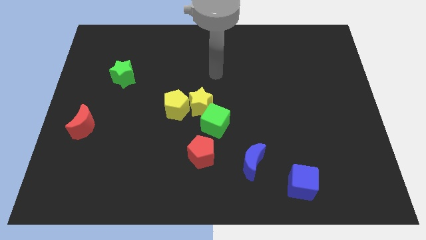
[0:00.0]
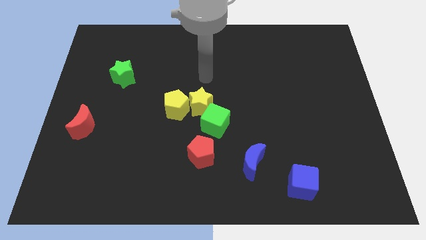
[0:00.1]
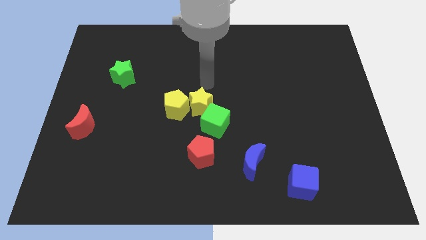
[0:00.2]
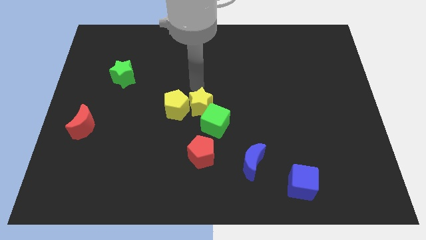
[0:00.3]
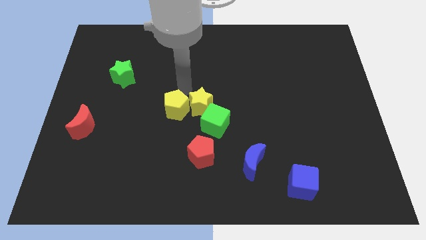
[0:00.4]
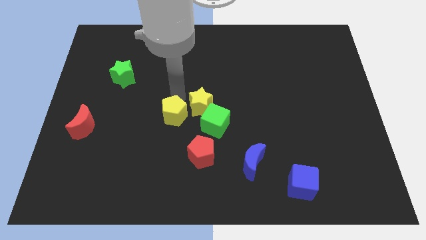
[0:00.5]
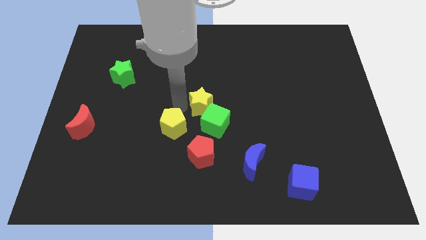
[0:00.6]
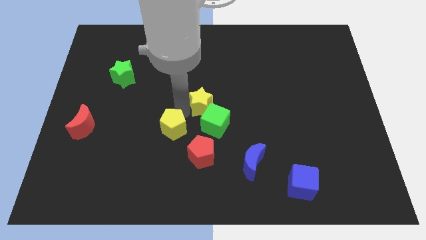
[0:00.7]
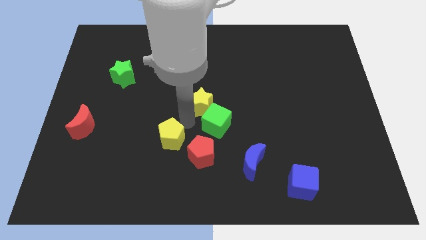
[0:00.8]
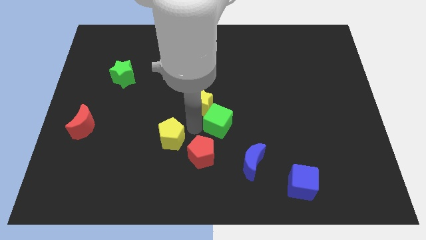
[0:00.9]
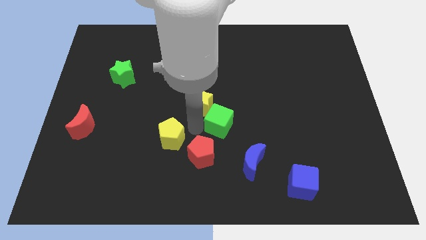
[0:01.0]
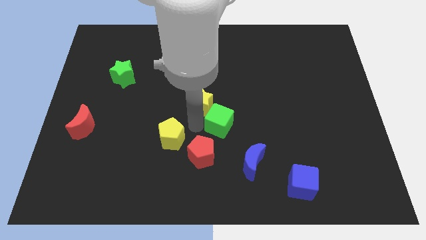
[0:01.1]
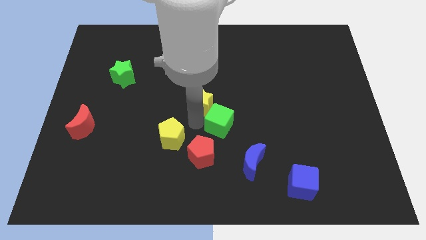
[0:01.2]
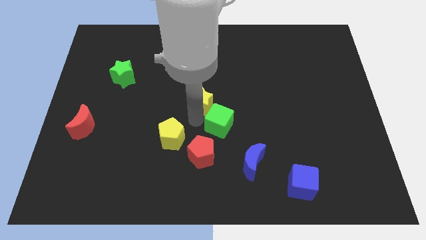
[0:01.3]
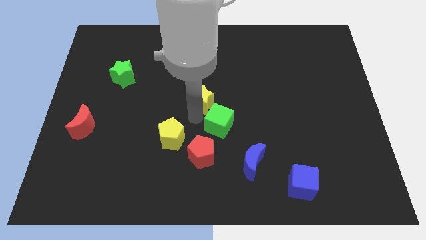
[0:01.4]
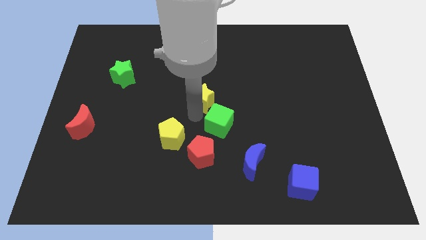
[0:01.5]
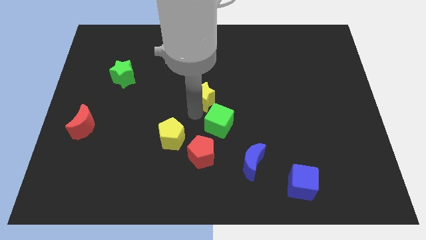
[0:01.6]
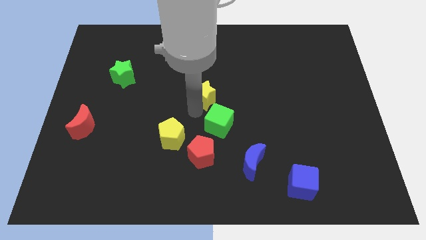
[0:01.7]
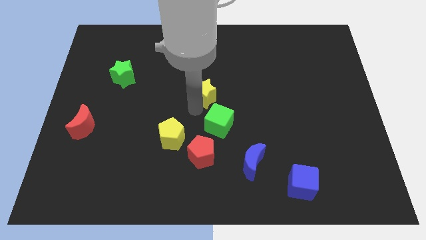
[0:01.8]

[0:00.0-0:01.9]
separate the yellow star from the yellow pentagon and green cube

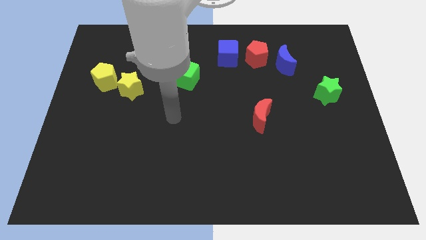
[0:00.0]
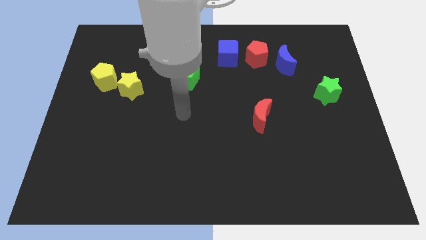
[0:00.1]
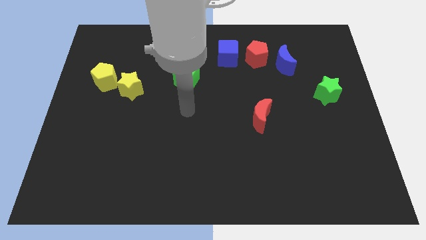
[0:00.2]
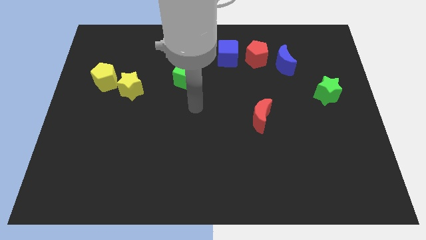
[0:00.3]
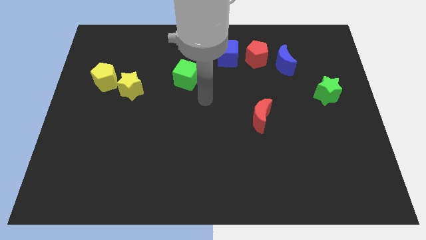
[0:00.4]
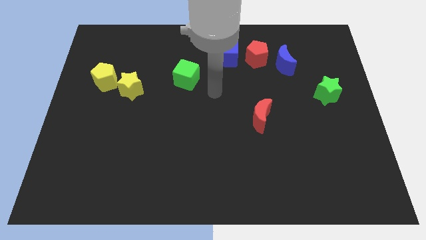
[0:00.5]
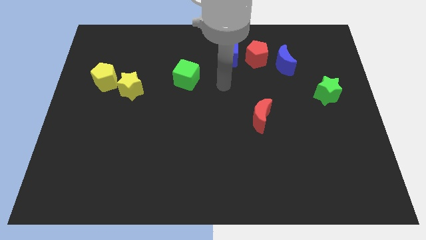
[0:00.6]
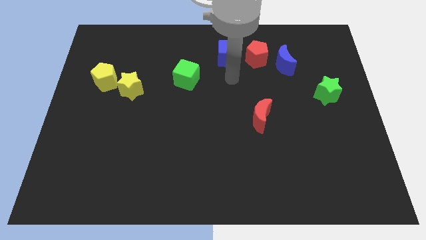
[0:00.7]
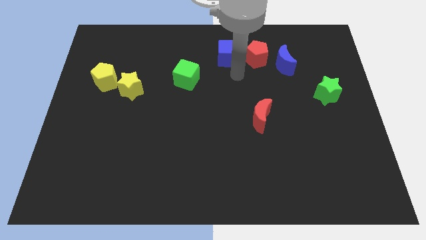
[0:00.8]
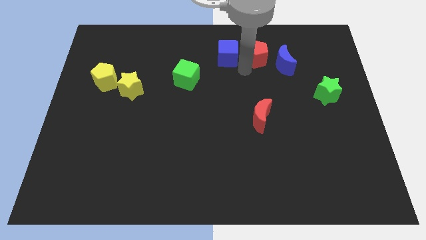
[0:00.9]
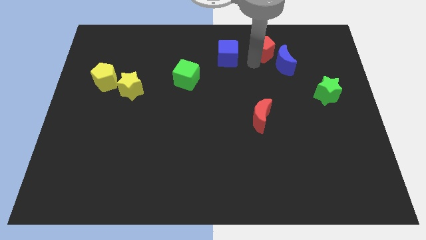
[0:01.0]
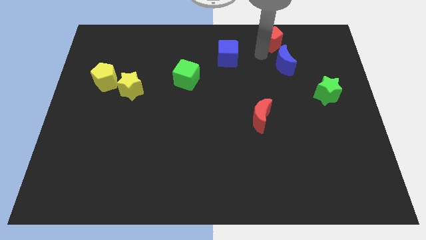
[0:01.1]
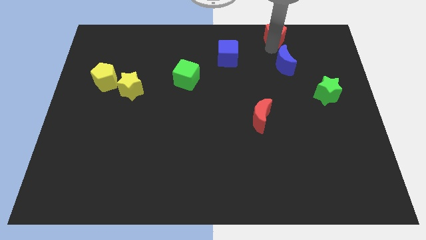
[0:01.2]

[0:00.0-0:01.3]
move the blue moon away from the red pentagon

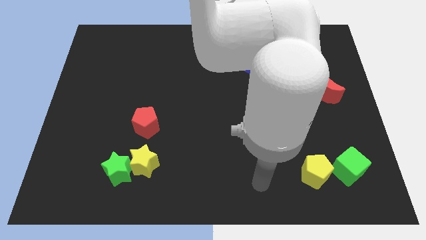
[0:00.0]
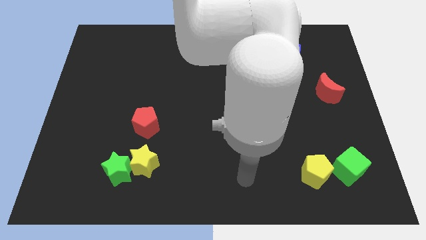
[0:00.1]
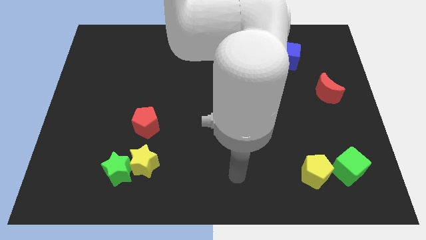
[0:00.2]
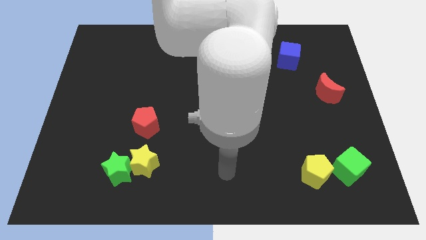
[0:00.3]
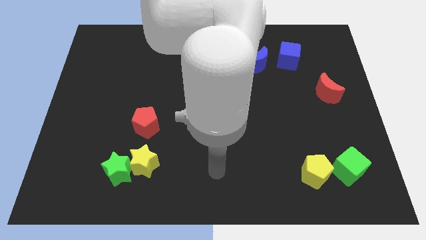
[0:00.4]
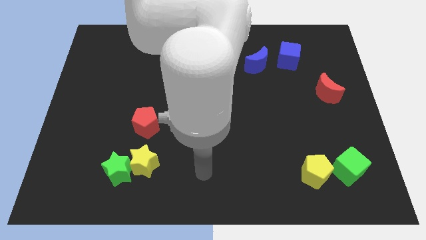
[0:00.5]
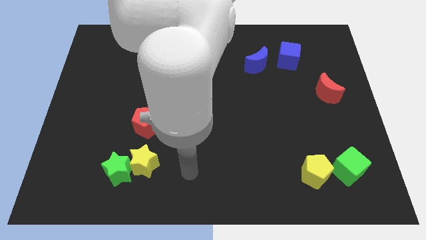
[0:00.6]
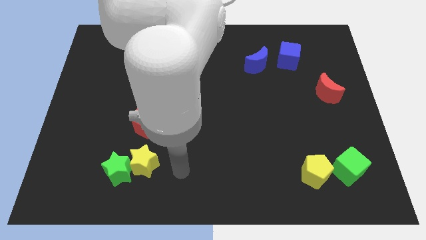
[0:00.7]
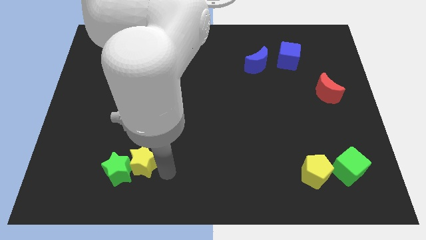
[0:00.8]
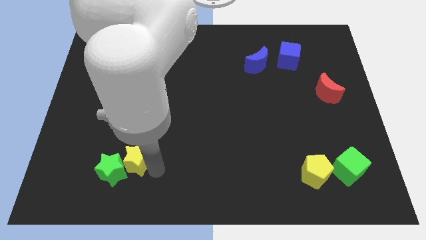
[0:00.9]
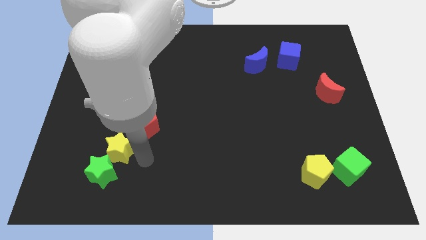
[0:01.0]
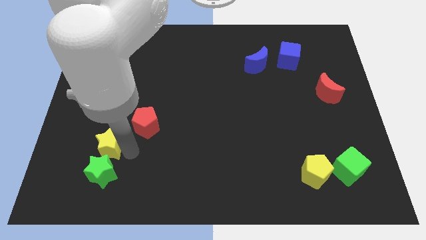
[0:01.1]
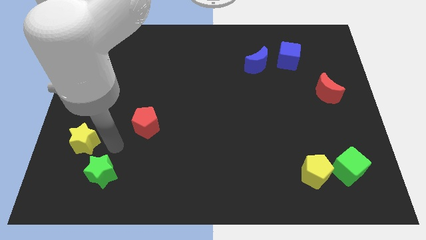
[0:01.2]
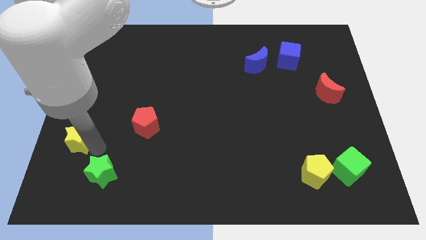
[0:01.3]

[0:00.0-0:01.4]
separate the green star from the yellow star

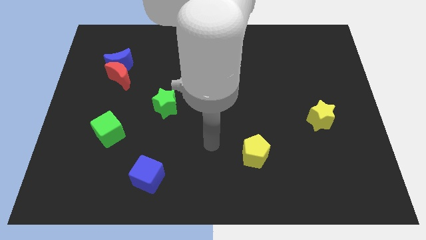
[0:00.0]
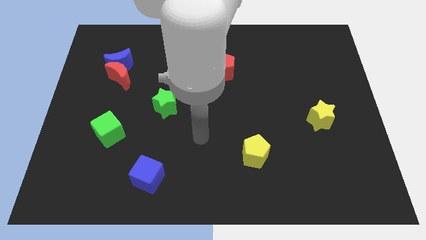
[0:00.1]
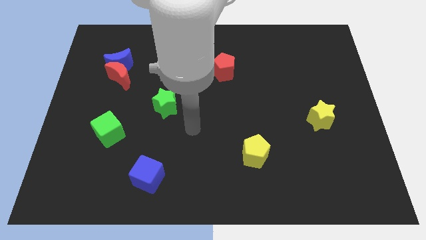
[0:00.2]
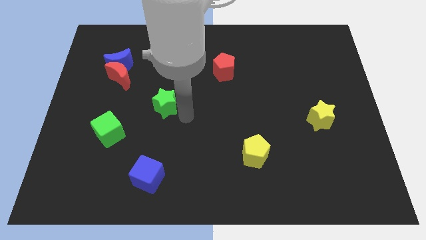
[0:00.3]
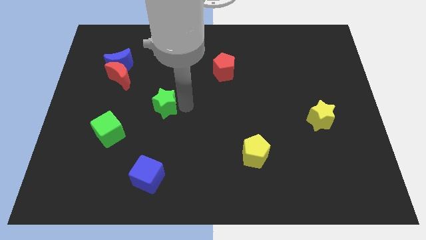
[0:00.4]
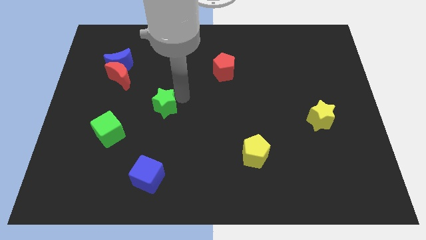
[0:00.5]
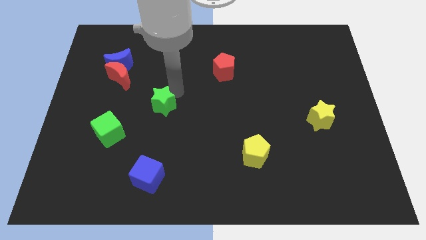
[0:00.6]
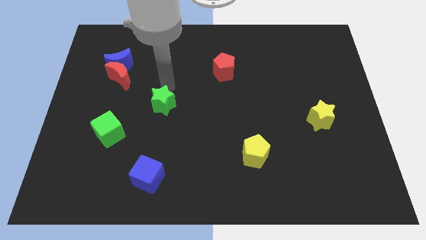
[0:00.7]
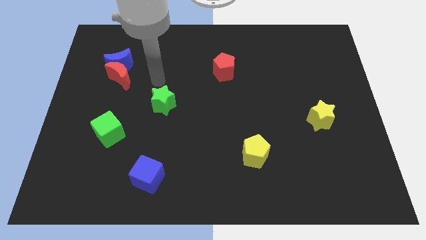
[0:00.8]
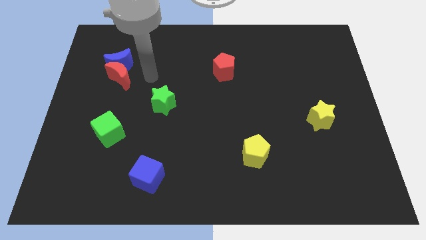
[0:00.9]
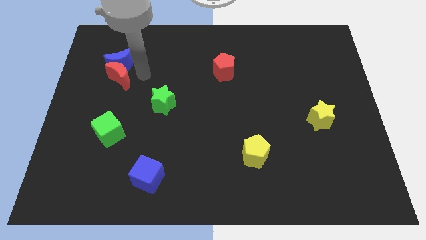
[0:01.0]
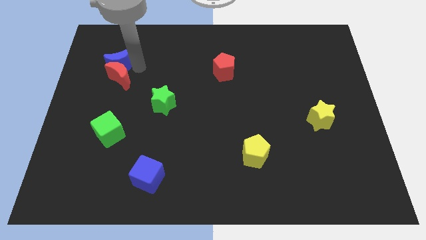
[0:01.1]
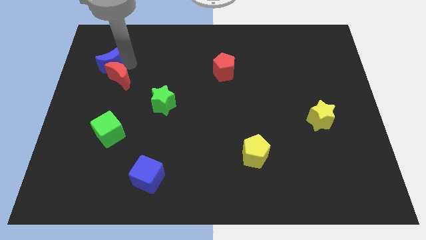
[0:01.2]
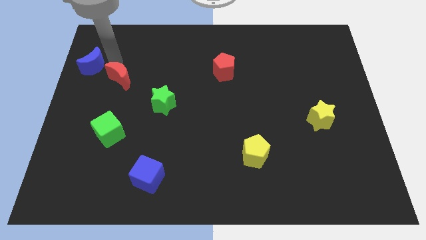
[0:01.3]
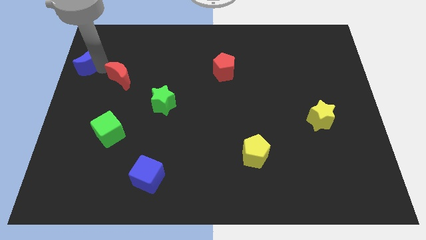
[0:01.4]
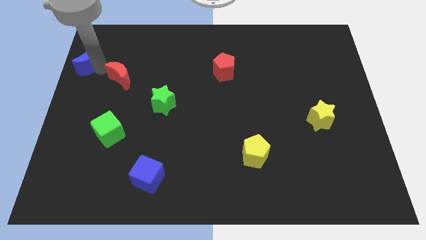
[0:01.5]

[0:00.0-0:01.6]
move the red moon away from the blue moon

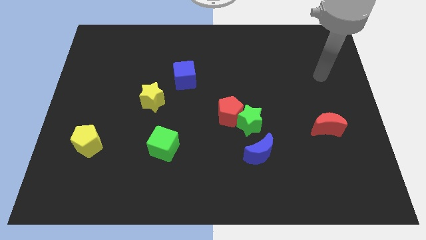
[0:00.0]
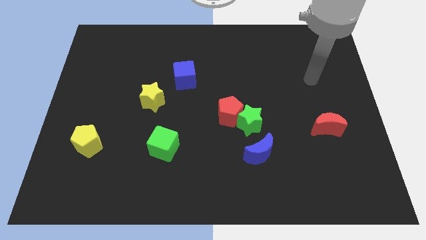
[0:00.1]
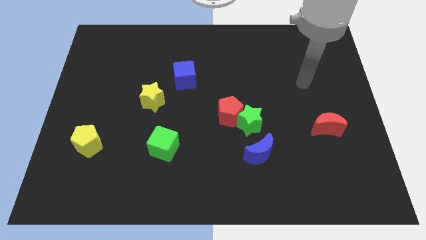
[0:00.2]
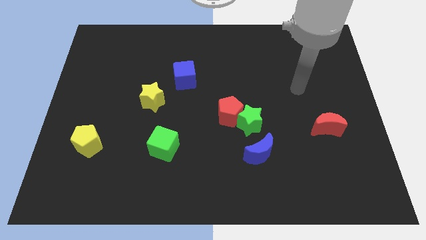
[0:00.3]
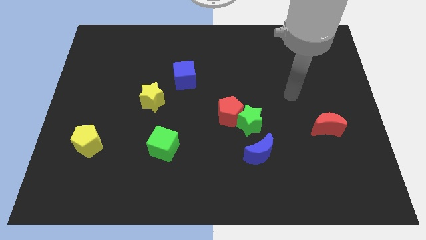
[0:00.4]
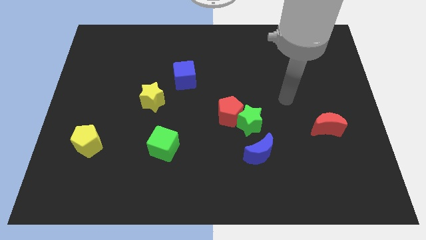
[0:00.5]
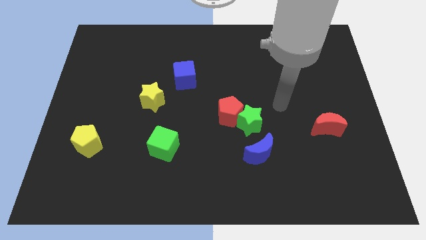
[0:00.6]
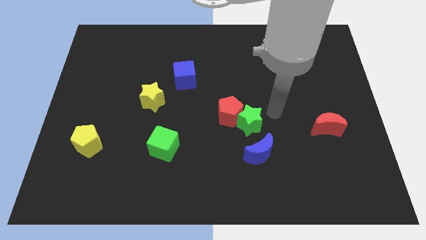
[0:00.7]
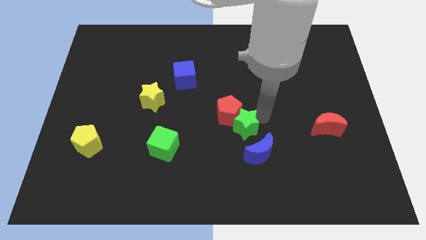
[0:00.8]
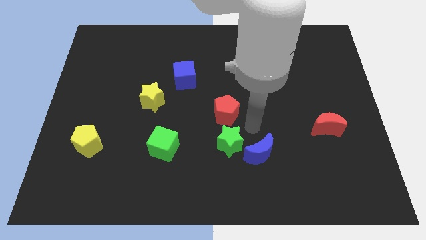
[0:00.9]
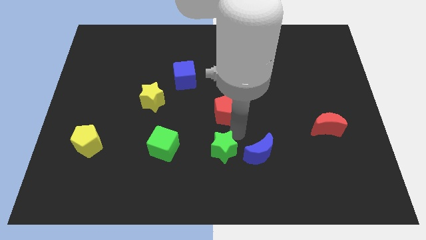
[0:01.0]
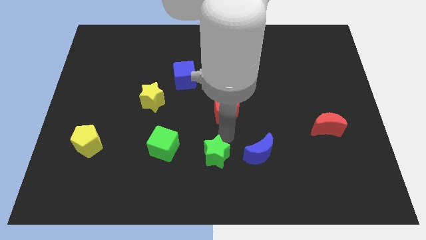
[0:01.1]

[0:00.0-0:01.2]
separate the red pentagon from the green star

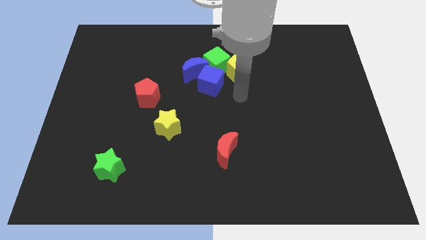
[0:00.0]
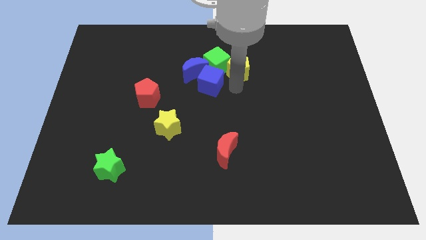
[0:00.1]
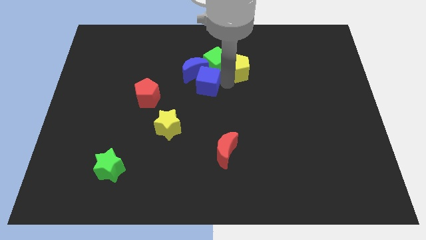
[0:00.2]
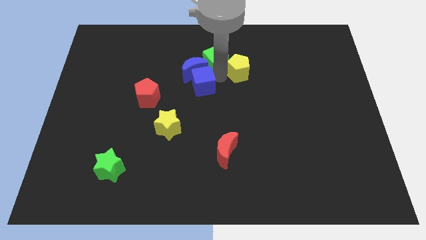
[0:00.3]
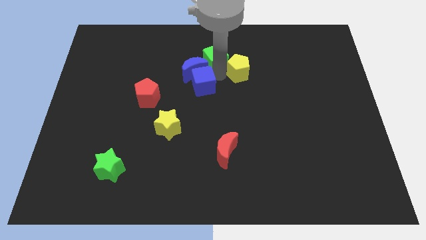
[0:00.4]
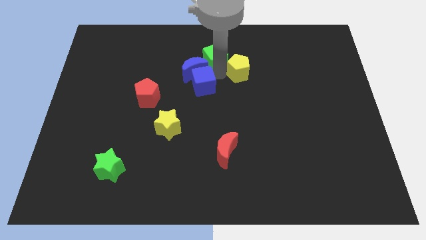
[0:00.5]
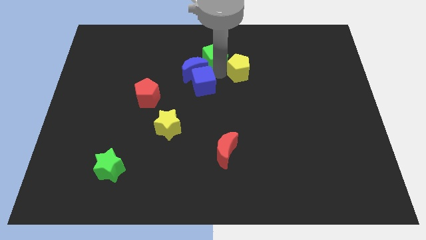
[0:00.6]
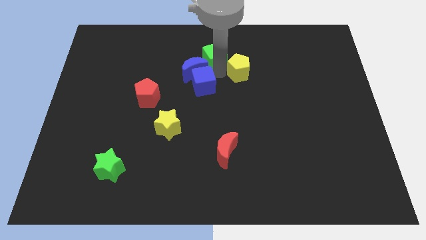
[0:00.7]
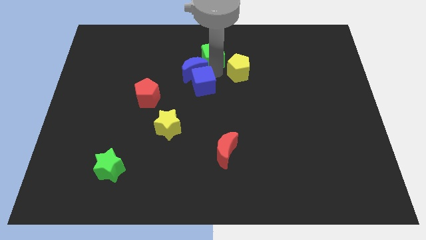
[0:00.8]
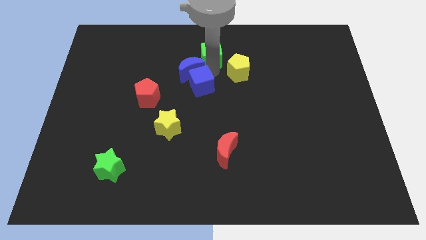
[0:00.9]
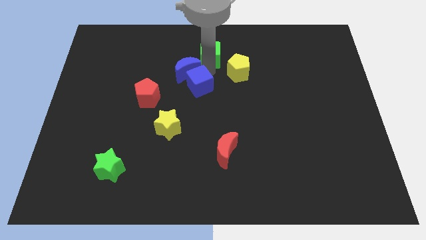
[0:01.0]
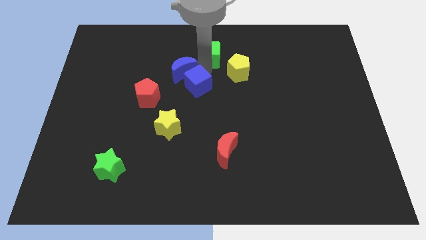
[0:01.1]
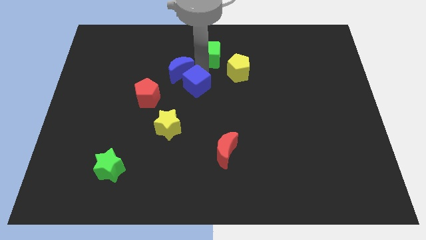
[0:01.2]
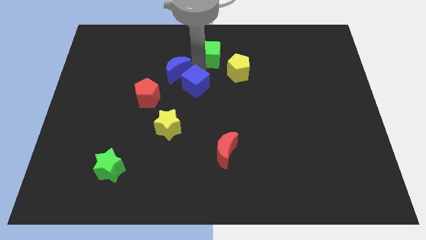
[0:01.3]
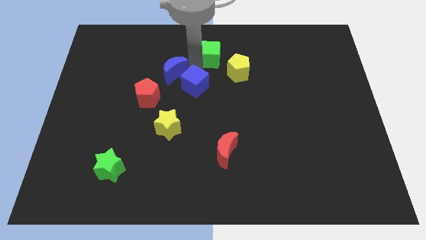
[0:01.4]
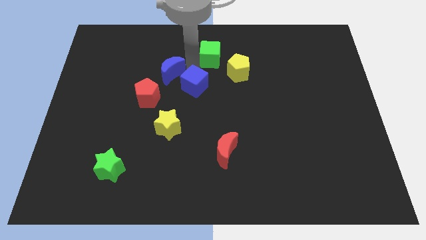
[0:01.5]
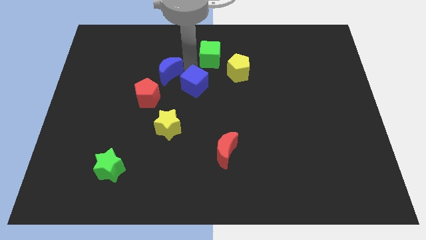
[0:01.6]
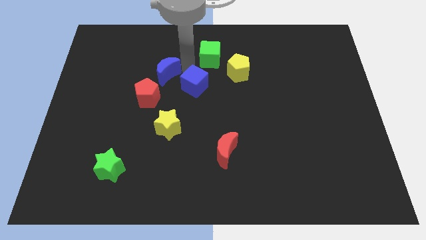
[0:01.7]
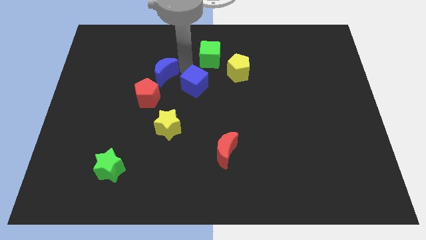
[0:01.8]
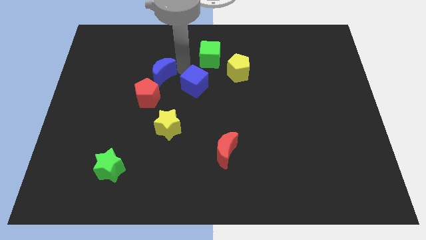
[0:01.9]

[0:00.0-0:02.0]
pull the blue moon apart from the blue cube and green cube
